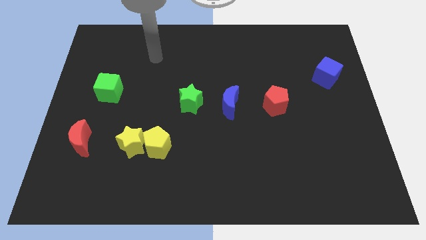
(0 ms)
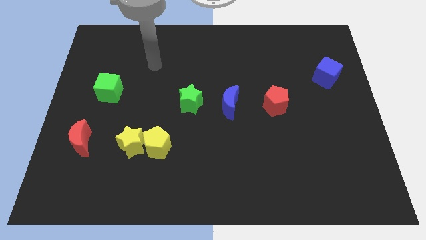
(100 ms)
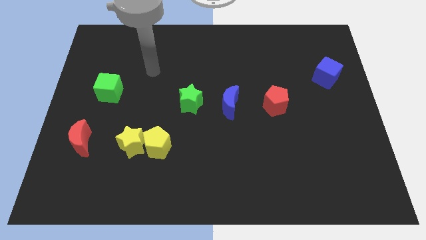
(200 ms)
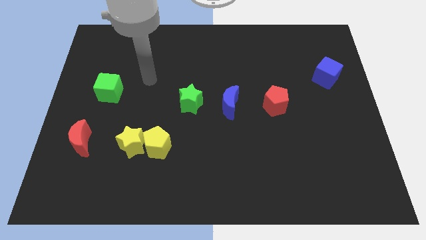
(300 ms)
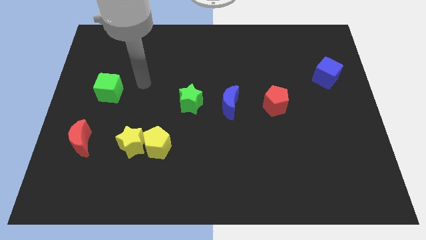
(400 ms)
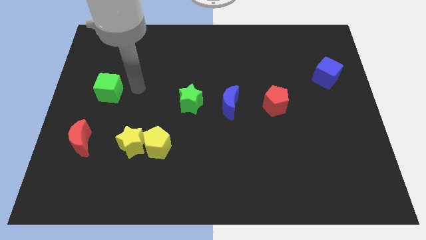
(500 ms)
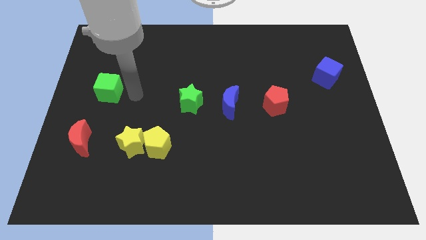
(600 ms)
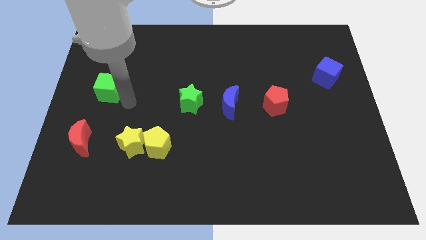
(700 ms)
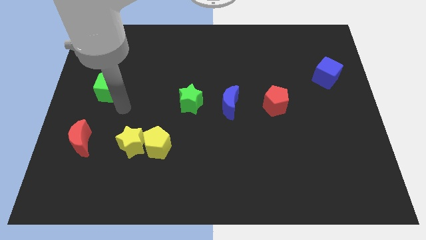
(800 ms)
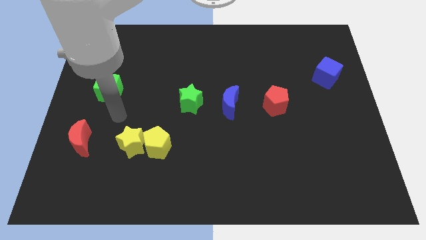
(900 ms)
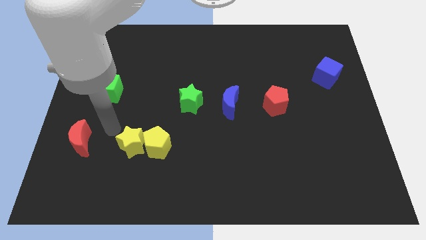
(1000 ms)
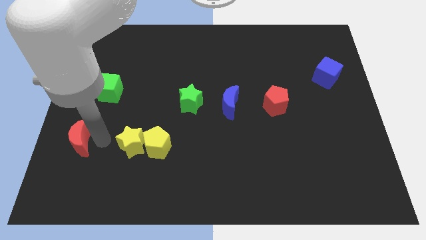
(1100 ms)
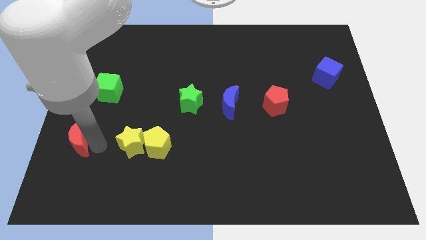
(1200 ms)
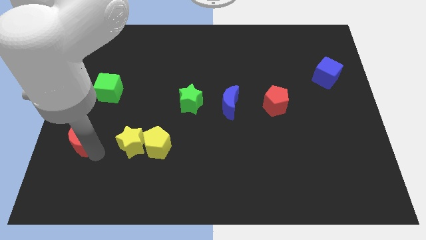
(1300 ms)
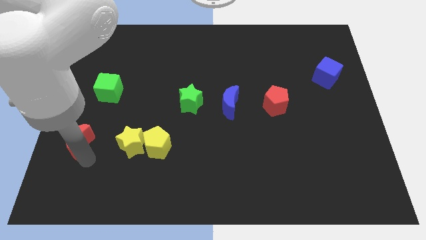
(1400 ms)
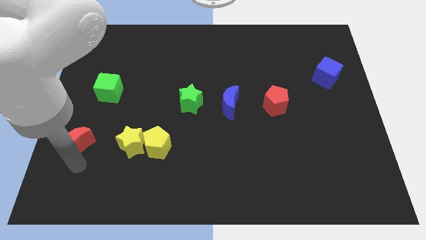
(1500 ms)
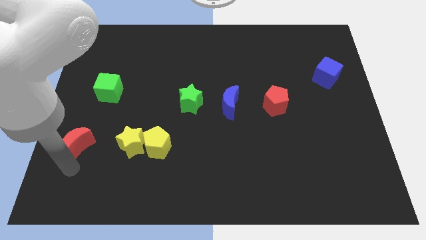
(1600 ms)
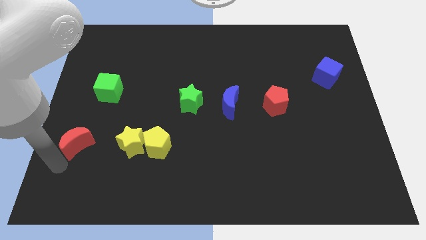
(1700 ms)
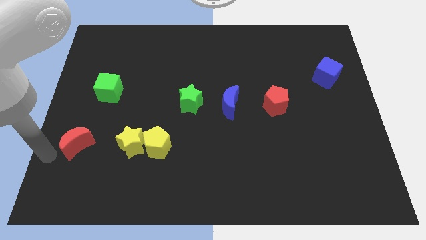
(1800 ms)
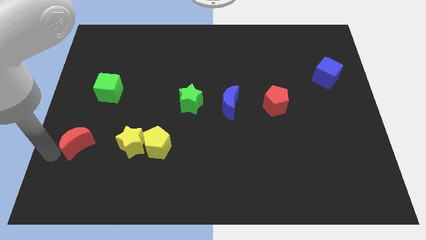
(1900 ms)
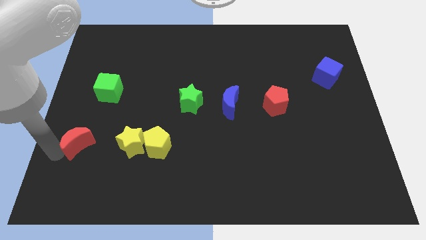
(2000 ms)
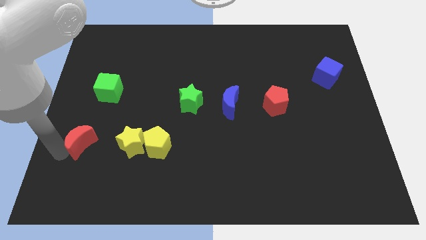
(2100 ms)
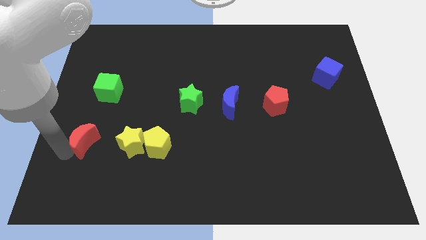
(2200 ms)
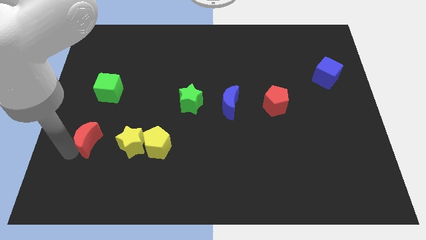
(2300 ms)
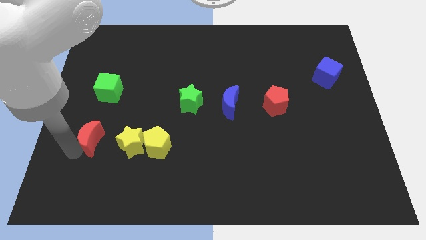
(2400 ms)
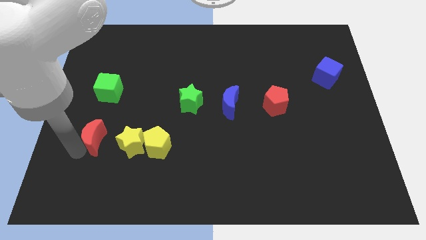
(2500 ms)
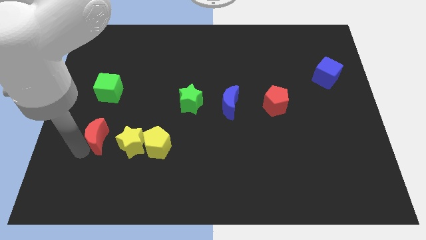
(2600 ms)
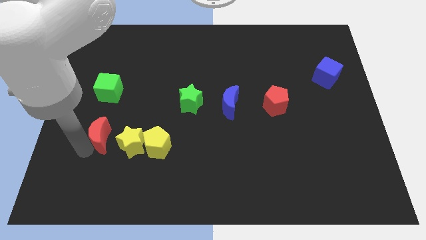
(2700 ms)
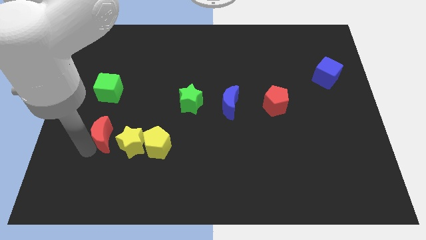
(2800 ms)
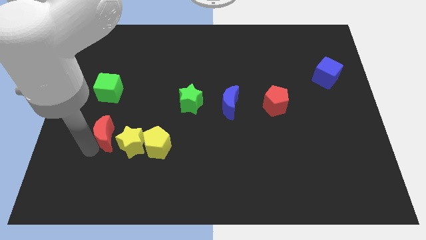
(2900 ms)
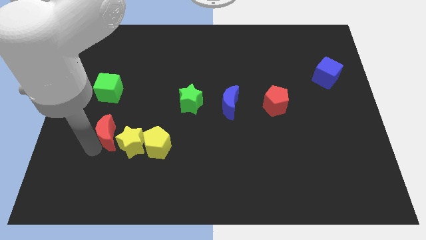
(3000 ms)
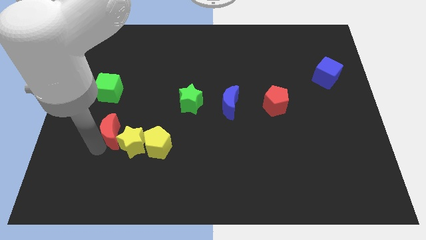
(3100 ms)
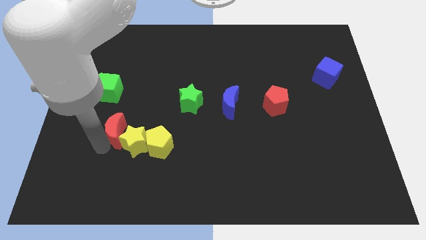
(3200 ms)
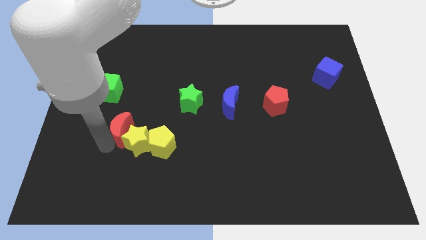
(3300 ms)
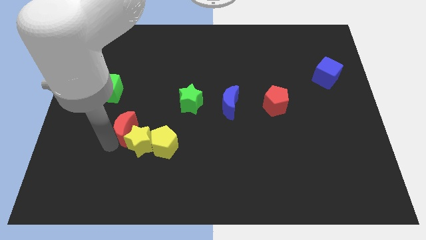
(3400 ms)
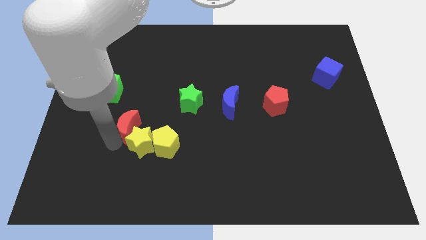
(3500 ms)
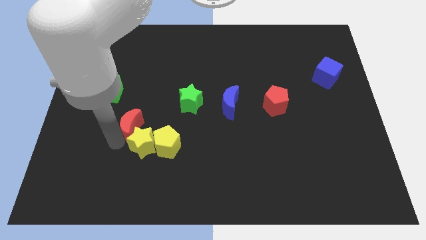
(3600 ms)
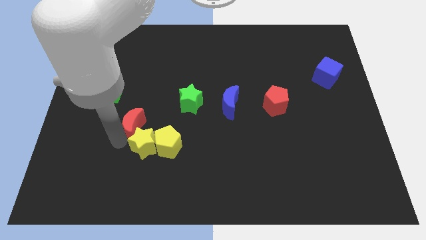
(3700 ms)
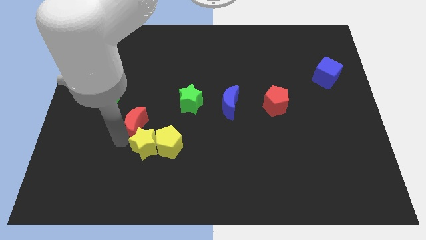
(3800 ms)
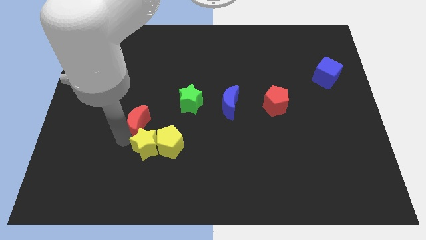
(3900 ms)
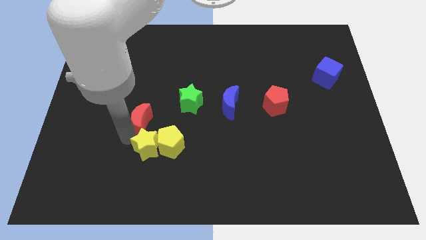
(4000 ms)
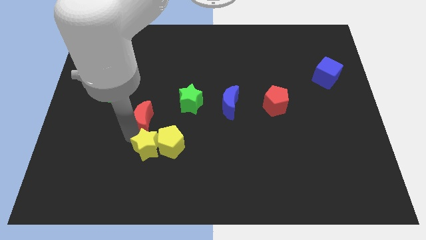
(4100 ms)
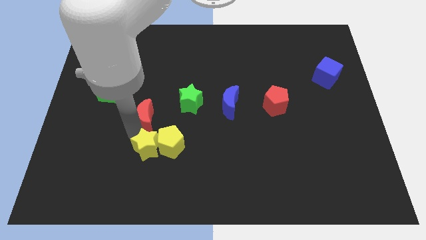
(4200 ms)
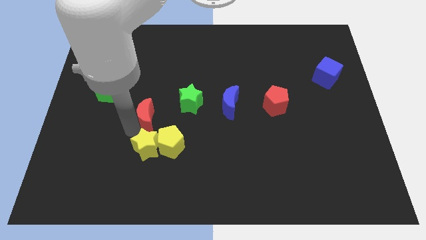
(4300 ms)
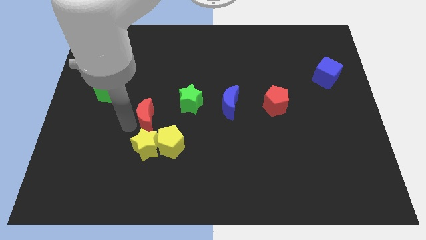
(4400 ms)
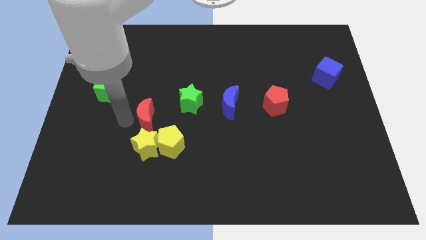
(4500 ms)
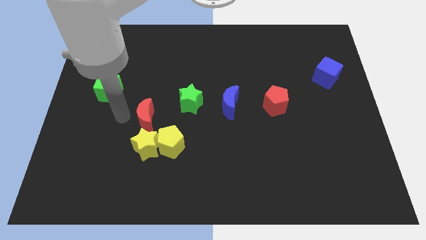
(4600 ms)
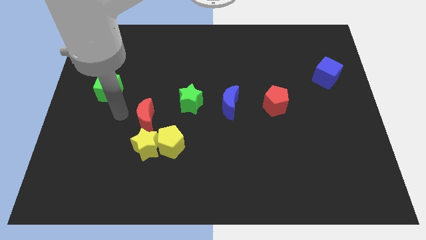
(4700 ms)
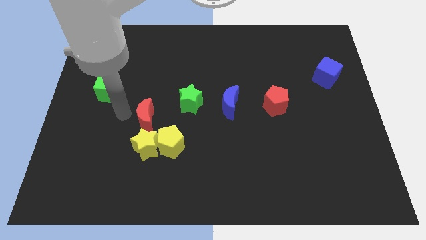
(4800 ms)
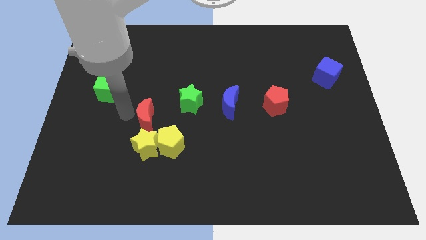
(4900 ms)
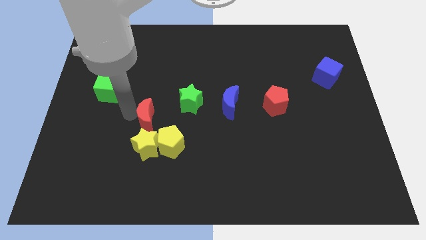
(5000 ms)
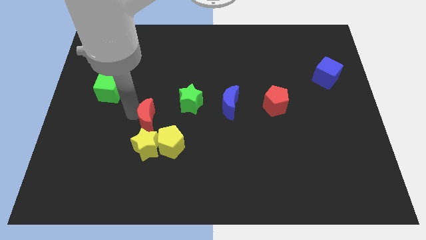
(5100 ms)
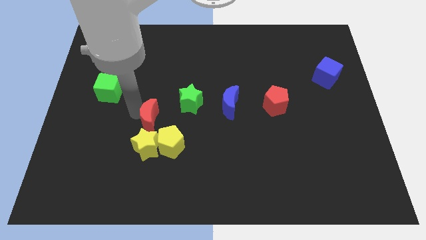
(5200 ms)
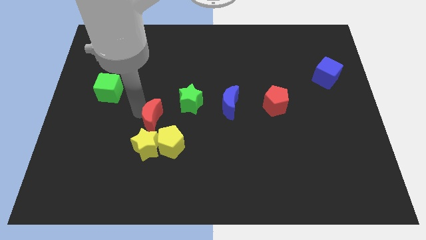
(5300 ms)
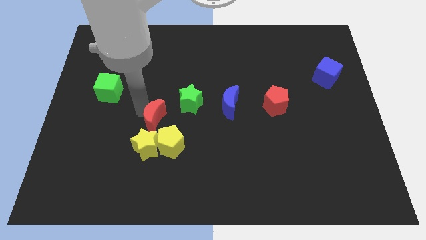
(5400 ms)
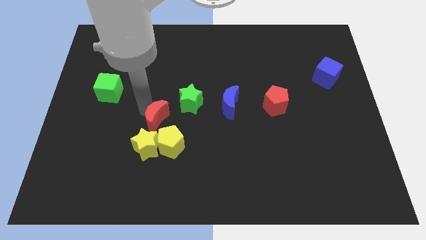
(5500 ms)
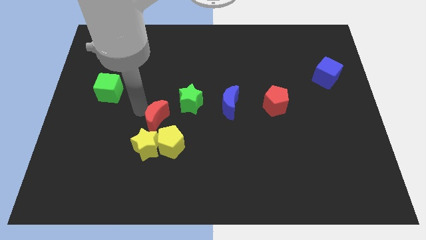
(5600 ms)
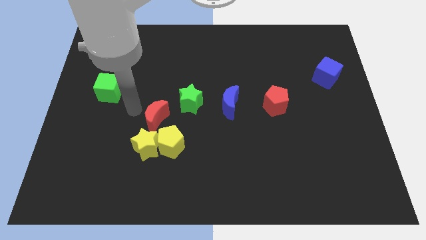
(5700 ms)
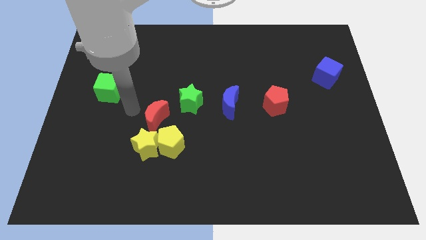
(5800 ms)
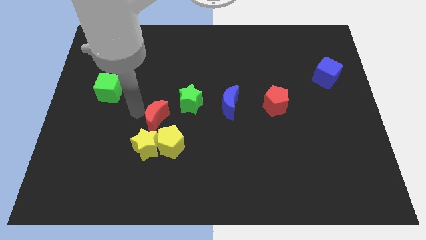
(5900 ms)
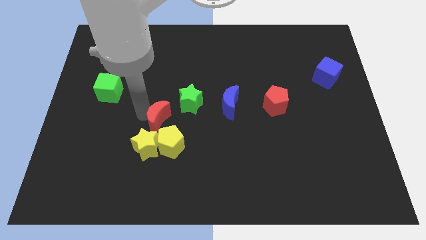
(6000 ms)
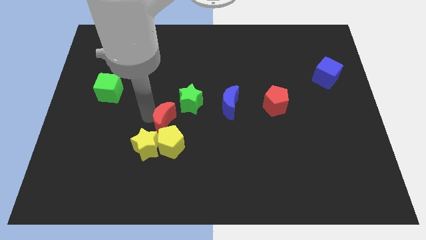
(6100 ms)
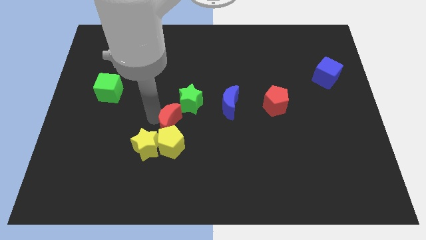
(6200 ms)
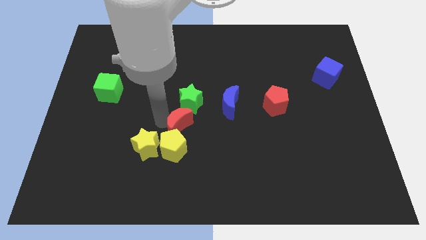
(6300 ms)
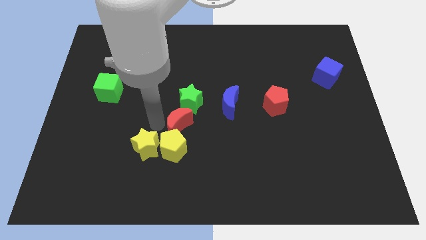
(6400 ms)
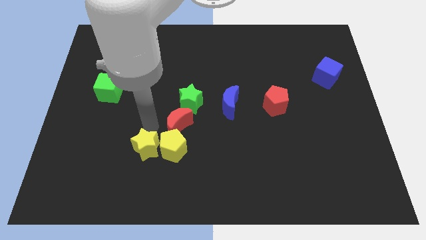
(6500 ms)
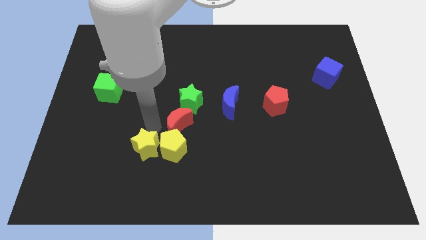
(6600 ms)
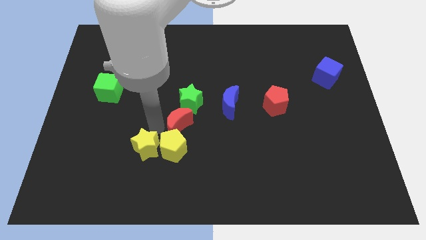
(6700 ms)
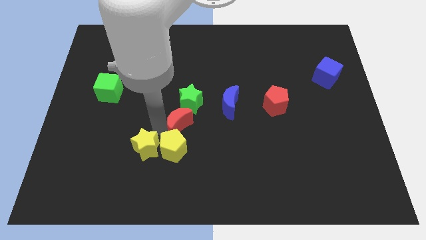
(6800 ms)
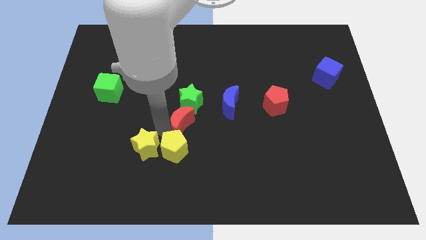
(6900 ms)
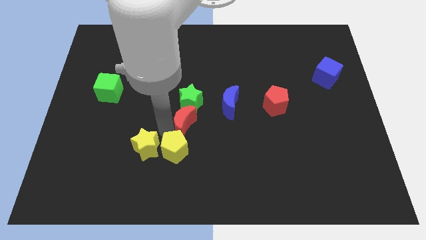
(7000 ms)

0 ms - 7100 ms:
push the red moon diagonally down and to the left of the blue moon

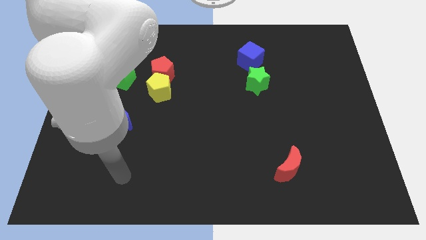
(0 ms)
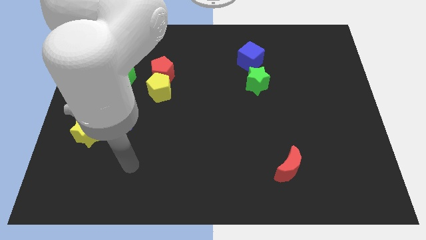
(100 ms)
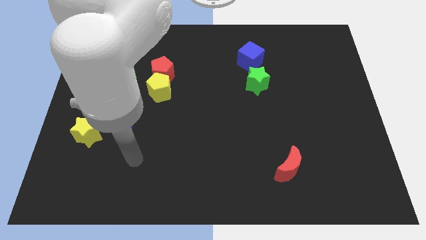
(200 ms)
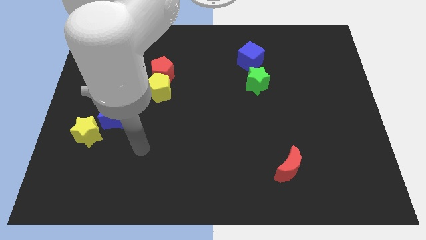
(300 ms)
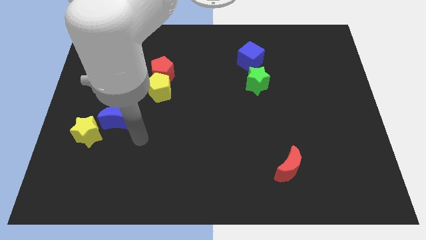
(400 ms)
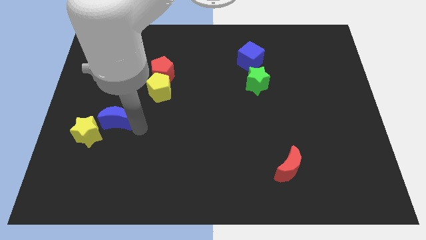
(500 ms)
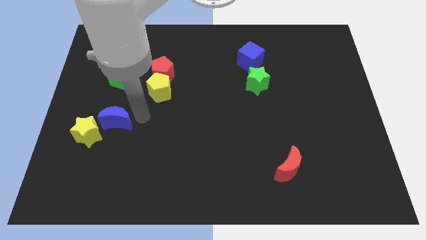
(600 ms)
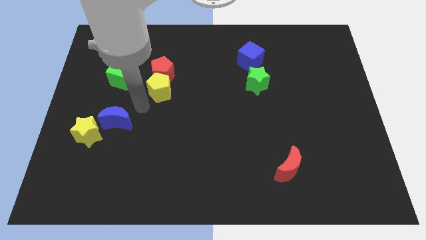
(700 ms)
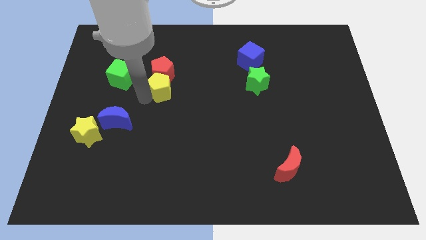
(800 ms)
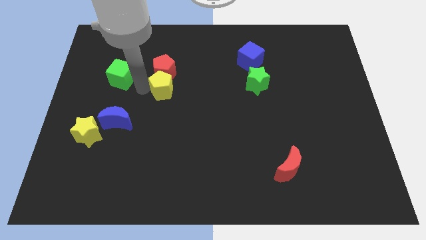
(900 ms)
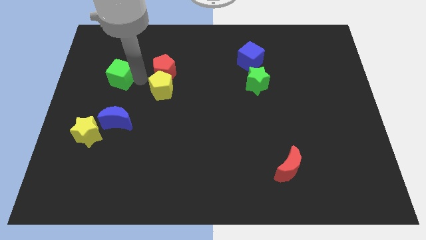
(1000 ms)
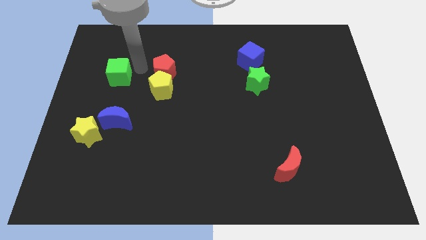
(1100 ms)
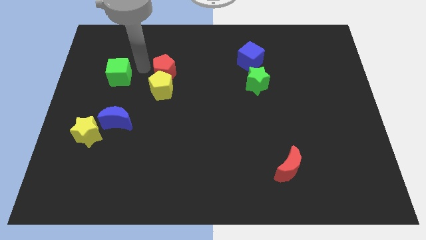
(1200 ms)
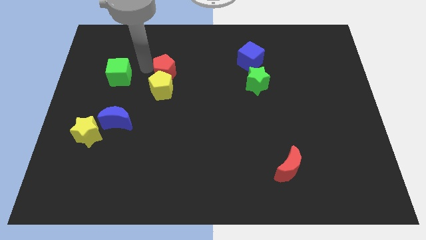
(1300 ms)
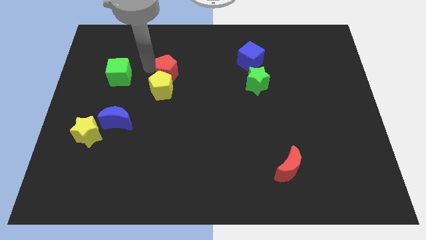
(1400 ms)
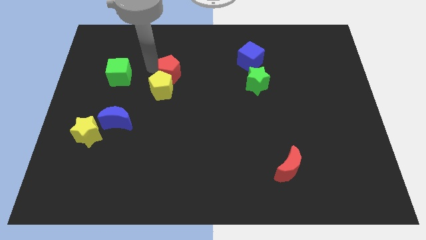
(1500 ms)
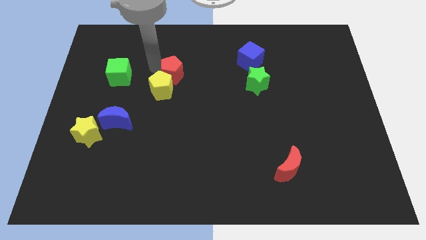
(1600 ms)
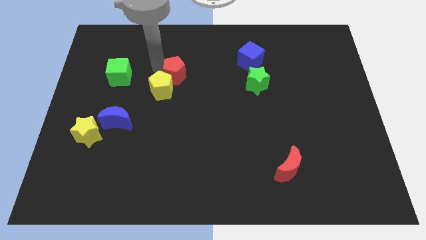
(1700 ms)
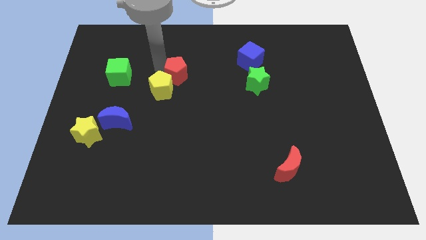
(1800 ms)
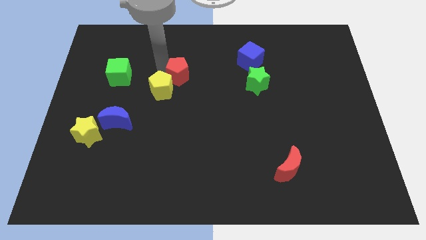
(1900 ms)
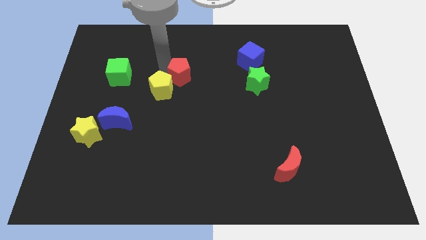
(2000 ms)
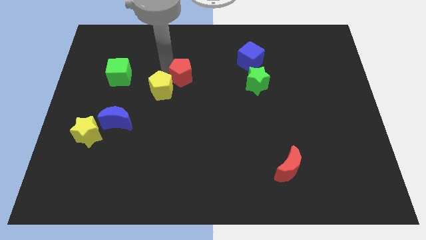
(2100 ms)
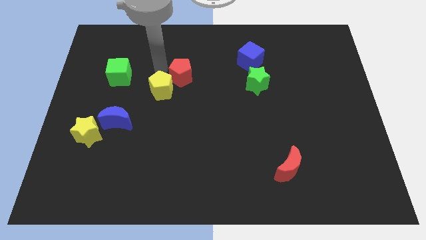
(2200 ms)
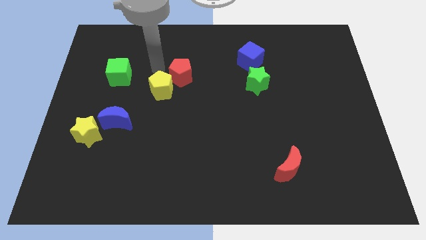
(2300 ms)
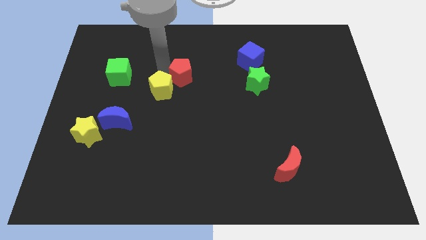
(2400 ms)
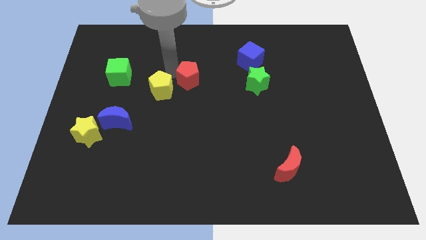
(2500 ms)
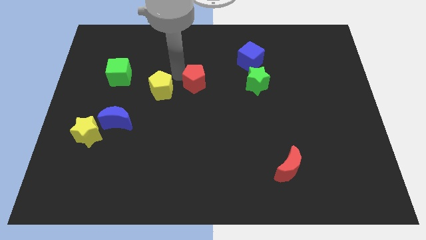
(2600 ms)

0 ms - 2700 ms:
push the red pentagon to the left of the green star
